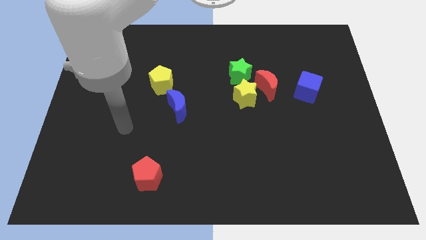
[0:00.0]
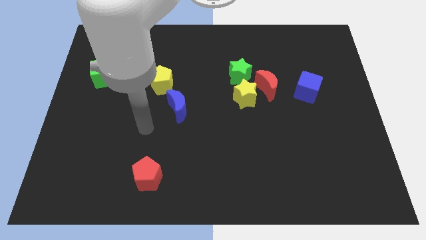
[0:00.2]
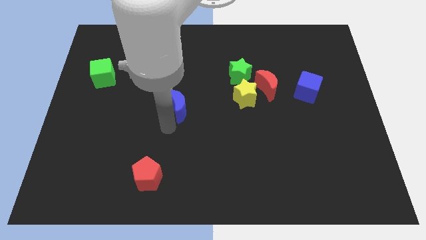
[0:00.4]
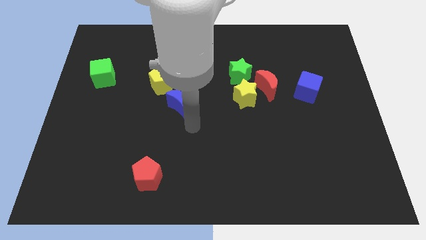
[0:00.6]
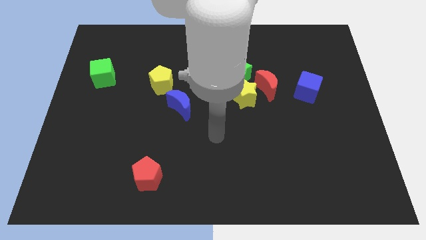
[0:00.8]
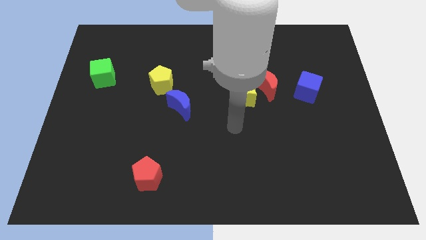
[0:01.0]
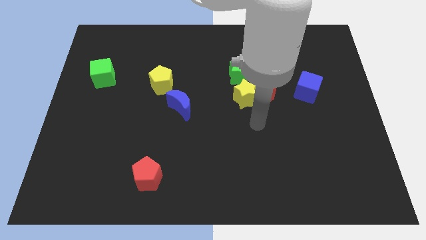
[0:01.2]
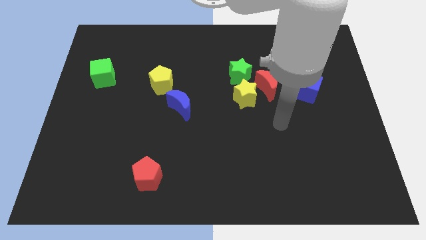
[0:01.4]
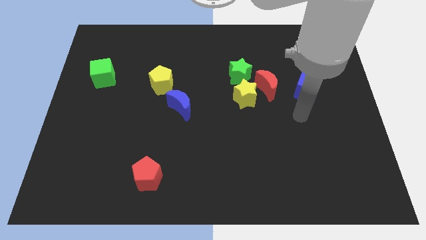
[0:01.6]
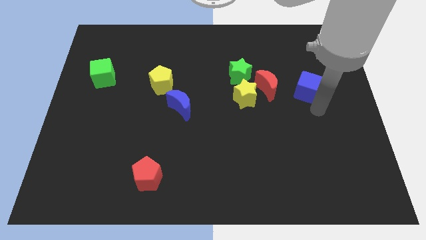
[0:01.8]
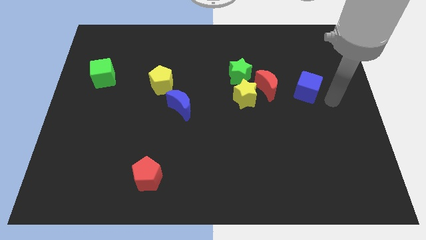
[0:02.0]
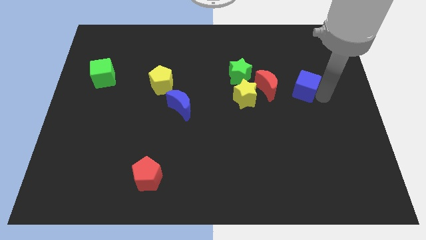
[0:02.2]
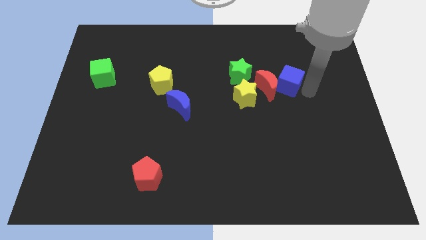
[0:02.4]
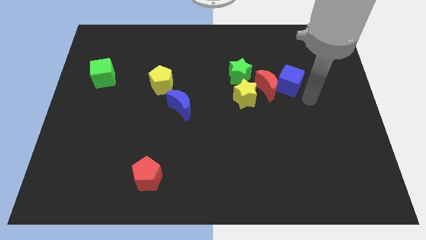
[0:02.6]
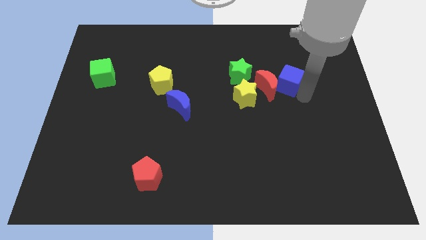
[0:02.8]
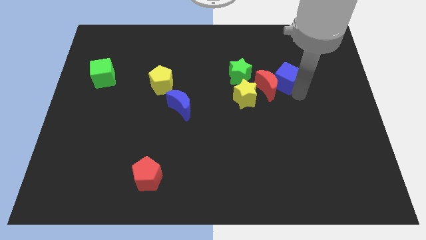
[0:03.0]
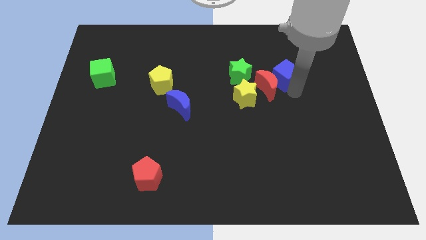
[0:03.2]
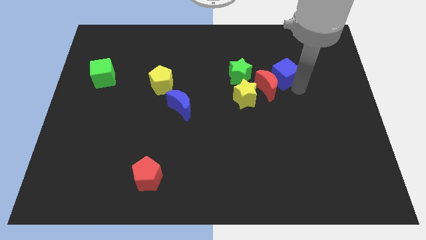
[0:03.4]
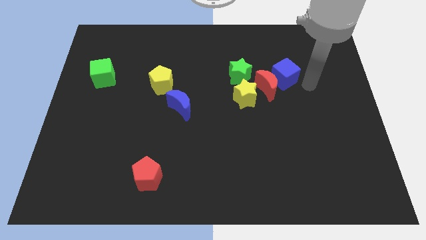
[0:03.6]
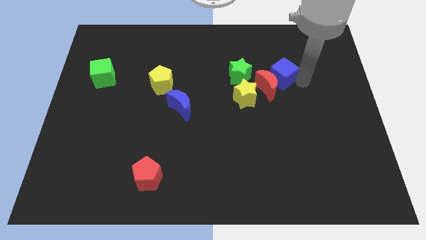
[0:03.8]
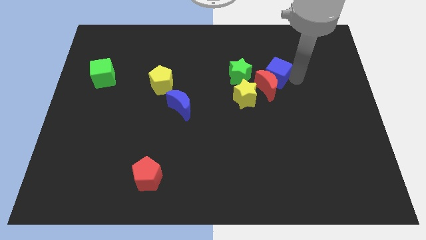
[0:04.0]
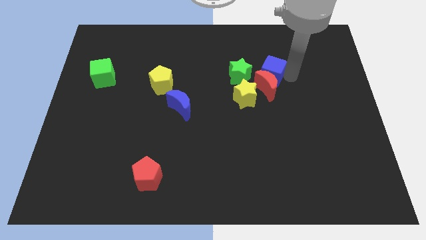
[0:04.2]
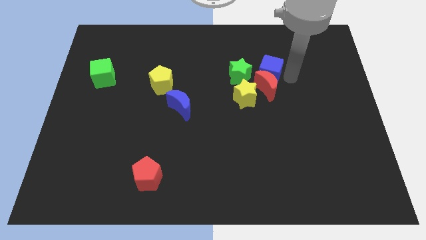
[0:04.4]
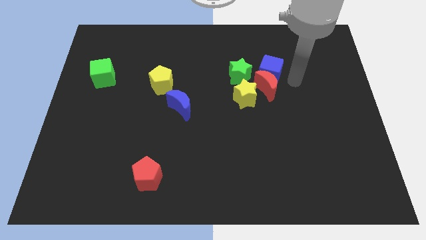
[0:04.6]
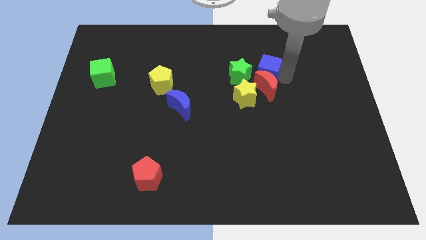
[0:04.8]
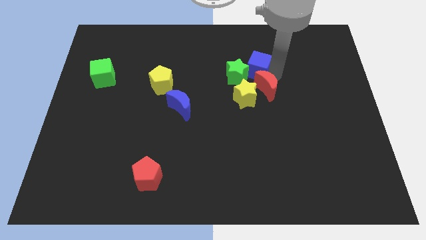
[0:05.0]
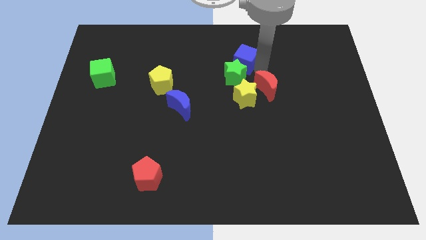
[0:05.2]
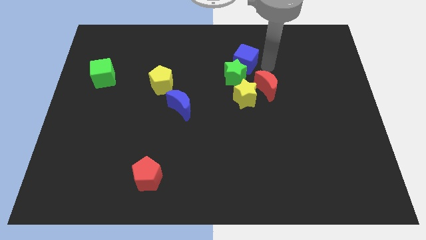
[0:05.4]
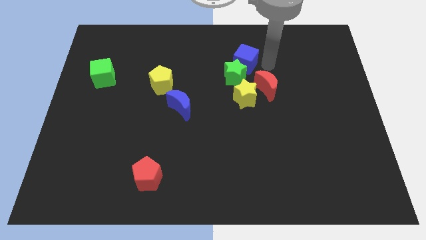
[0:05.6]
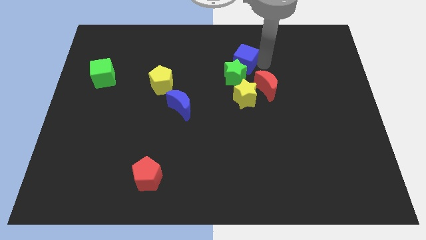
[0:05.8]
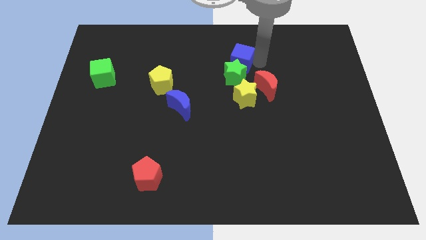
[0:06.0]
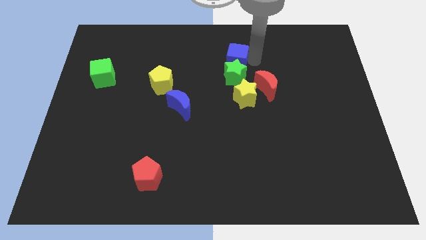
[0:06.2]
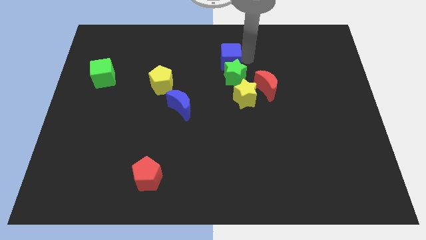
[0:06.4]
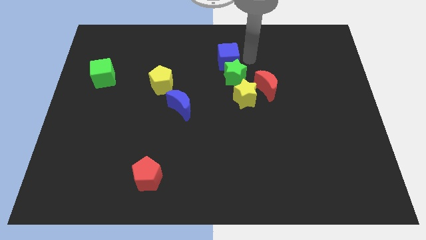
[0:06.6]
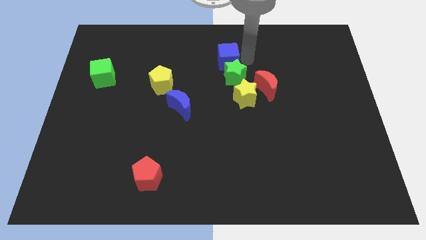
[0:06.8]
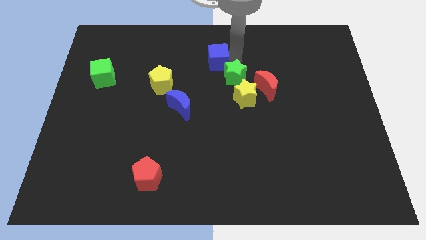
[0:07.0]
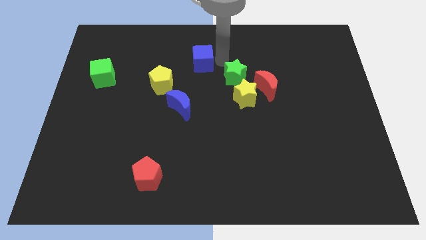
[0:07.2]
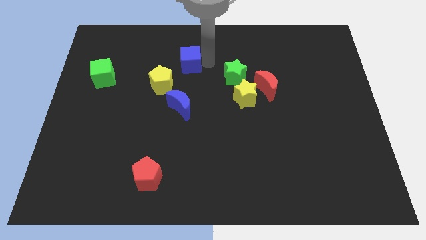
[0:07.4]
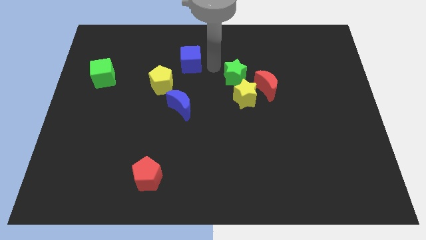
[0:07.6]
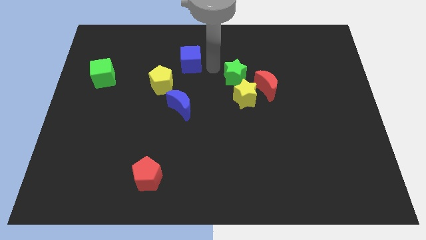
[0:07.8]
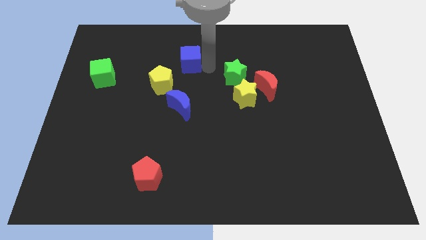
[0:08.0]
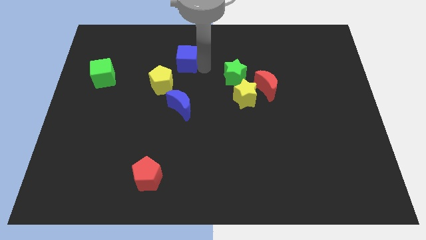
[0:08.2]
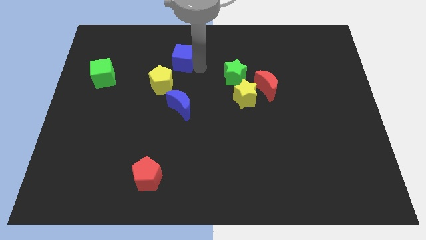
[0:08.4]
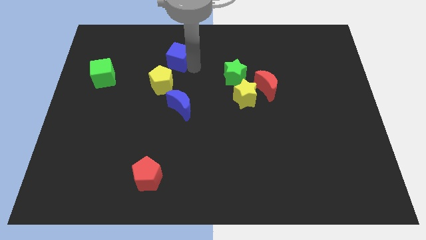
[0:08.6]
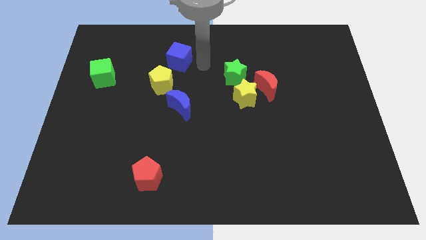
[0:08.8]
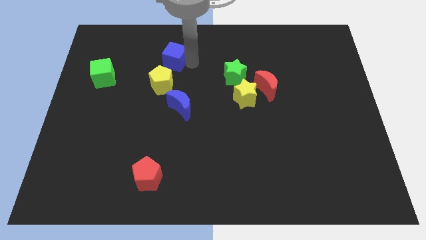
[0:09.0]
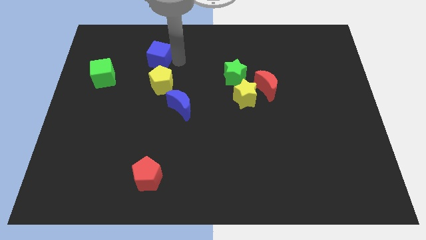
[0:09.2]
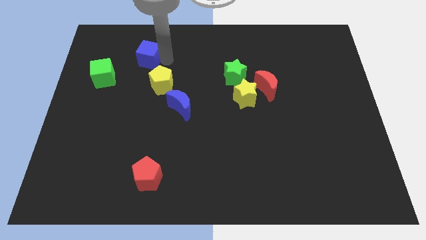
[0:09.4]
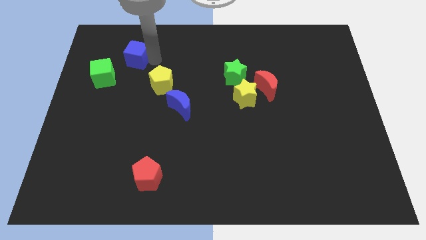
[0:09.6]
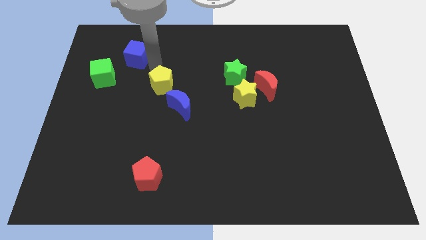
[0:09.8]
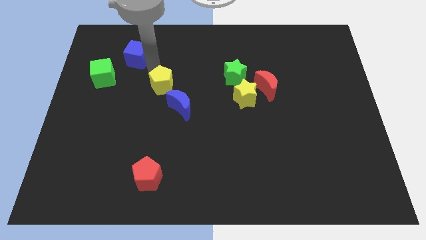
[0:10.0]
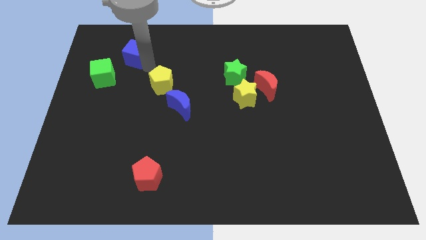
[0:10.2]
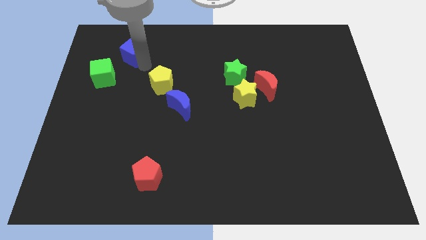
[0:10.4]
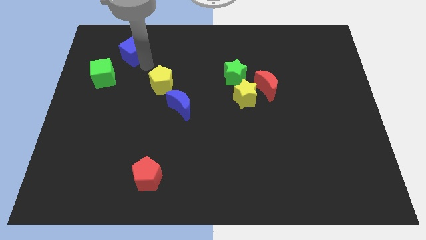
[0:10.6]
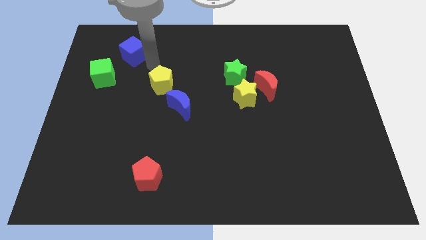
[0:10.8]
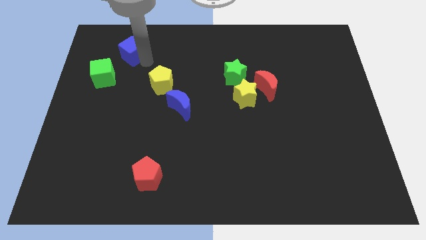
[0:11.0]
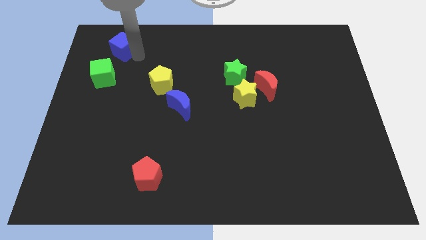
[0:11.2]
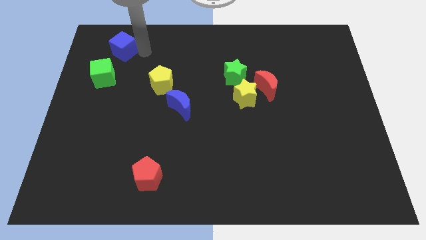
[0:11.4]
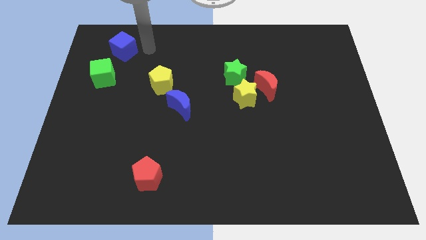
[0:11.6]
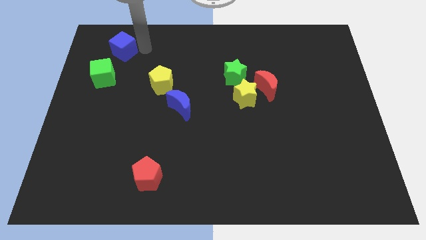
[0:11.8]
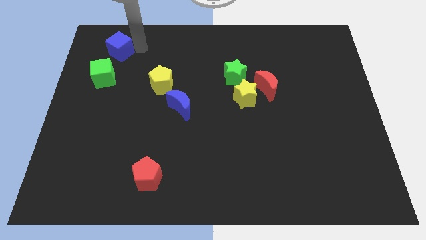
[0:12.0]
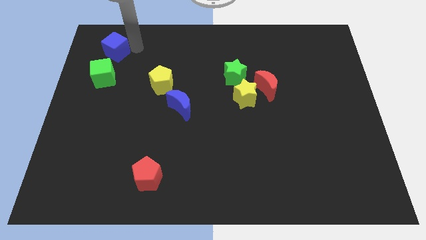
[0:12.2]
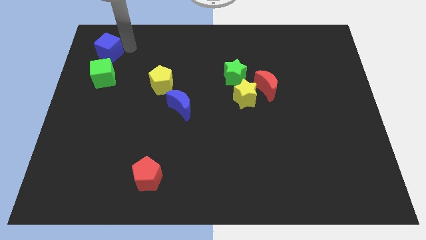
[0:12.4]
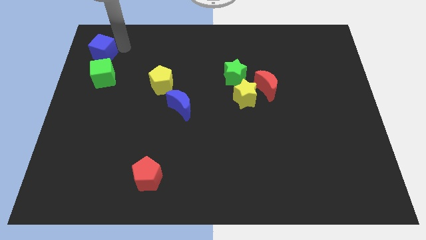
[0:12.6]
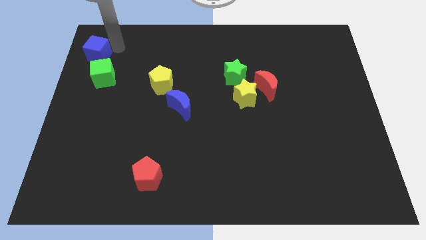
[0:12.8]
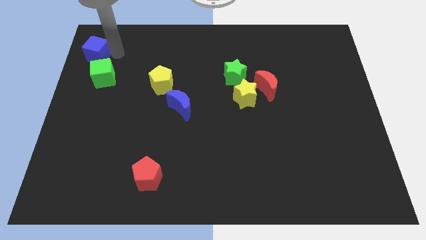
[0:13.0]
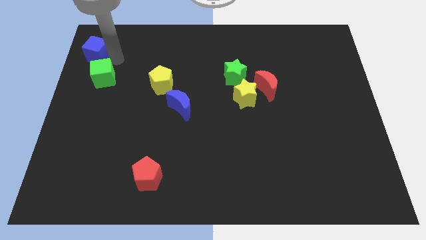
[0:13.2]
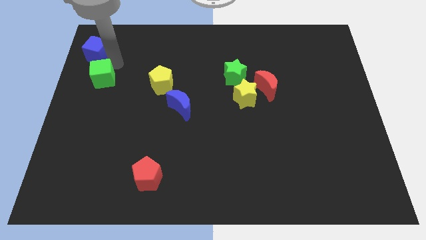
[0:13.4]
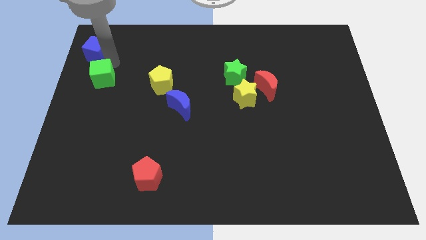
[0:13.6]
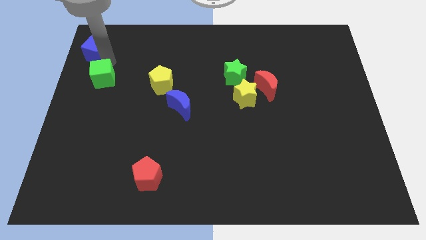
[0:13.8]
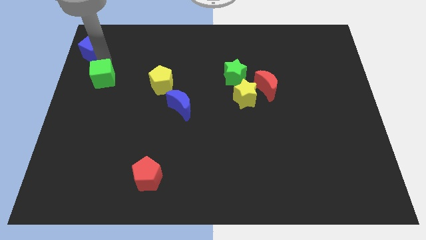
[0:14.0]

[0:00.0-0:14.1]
slide the blue cube to the top left corner

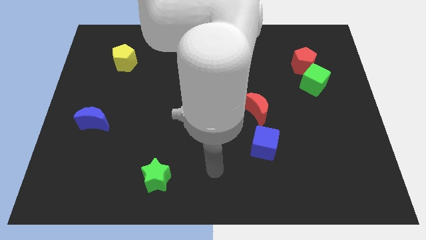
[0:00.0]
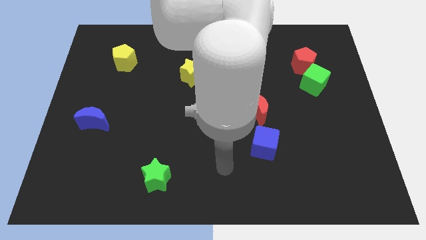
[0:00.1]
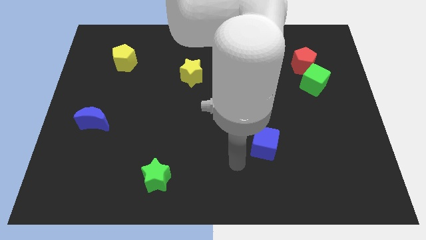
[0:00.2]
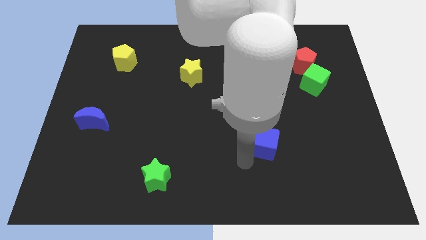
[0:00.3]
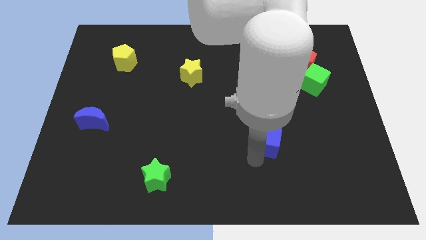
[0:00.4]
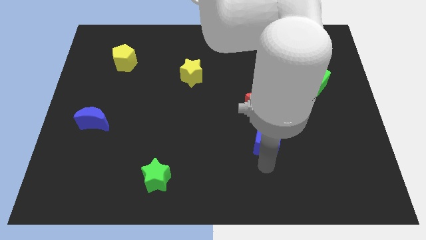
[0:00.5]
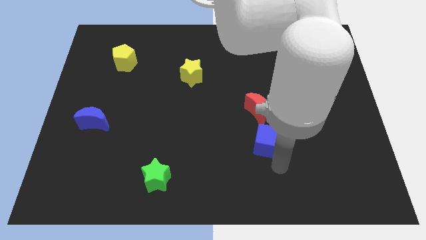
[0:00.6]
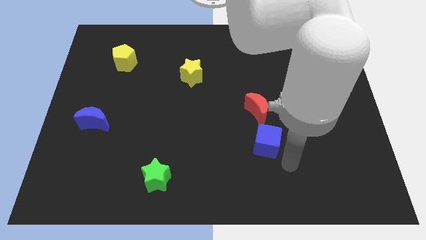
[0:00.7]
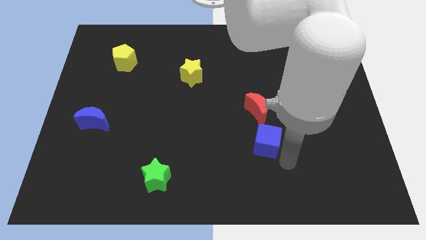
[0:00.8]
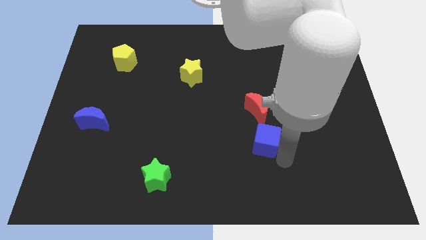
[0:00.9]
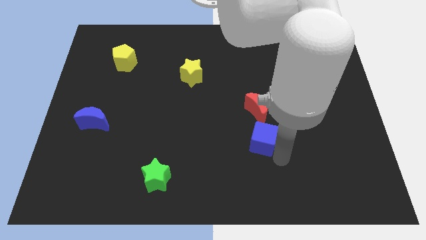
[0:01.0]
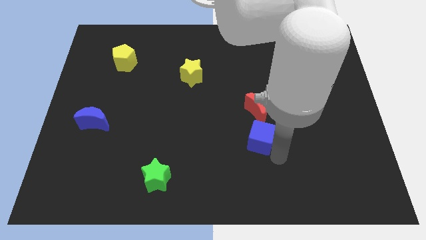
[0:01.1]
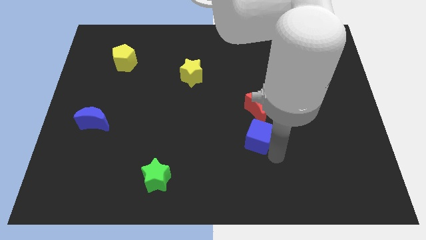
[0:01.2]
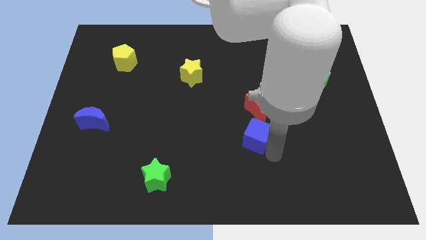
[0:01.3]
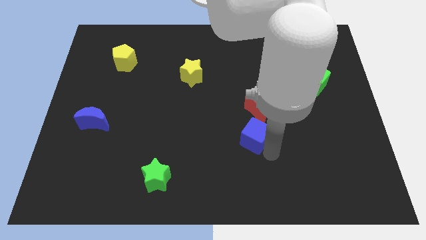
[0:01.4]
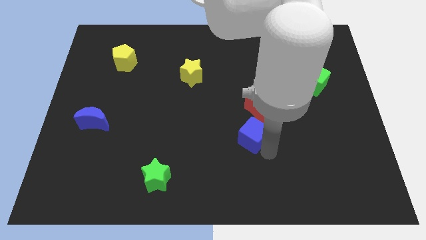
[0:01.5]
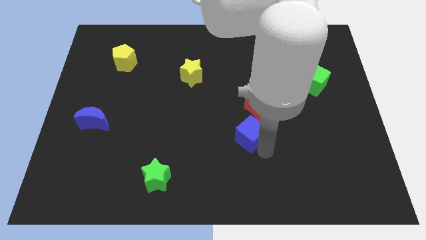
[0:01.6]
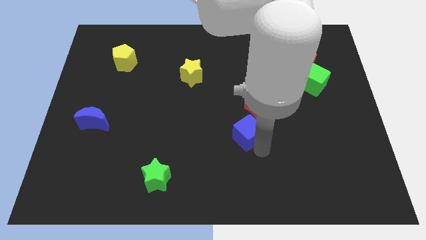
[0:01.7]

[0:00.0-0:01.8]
slide the blue cube to the center
